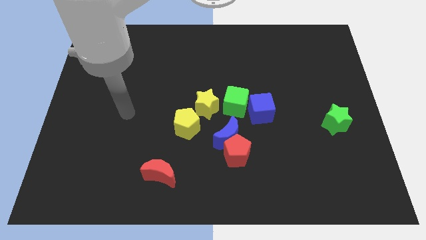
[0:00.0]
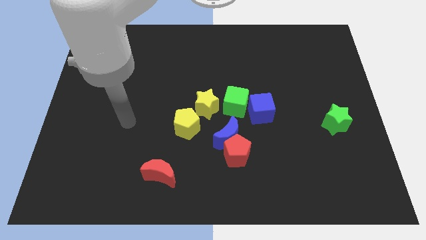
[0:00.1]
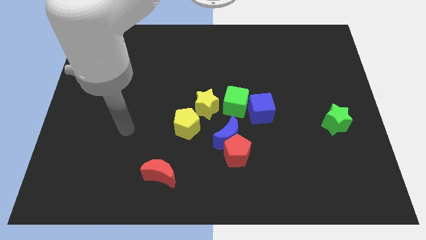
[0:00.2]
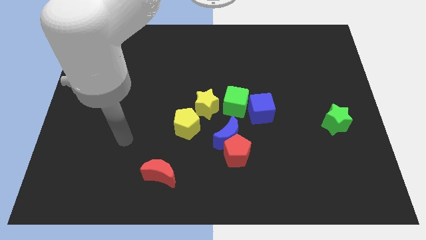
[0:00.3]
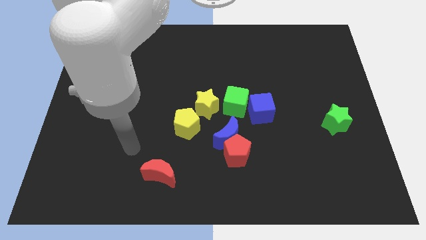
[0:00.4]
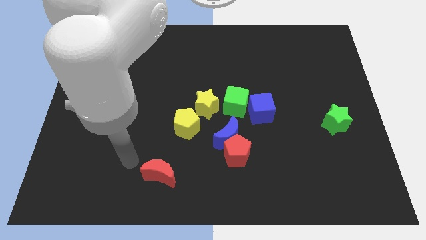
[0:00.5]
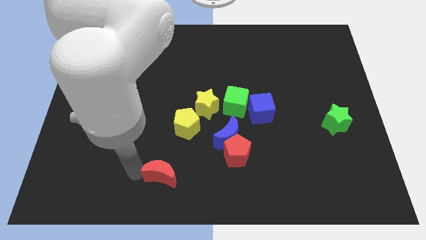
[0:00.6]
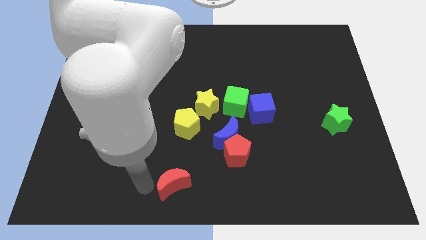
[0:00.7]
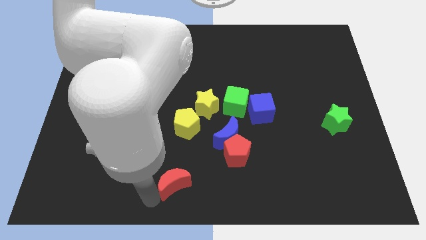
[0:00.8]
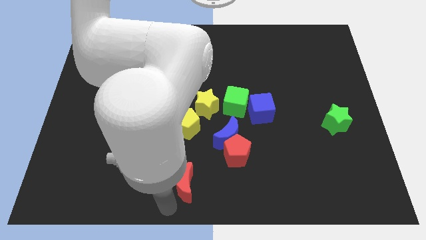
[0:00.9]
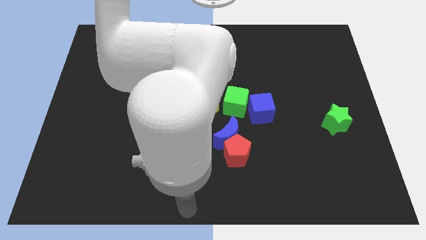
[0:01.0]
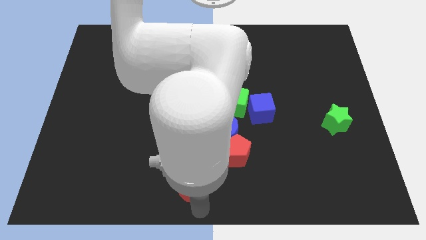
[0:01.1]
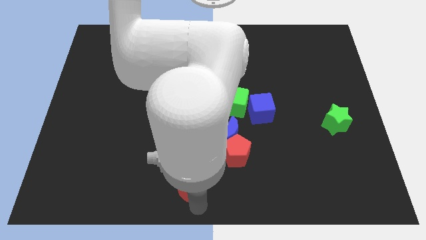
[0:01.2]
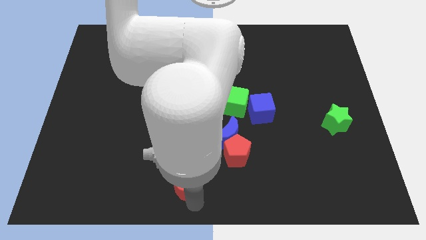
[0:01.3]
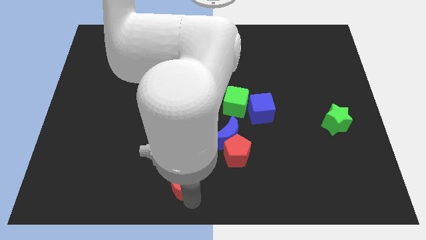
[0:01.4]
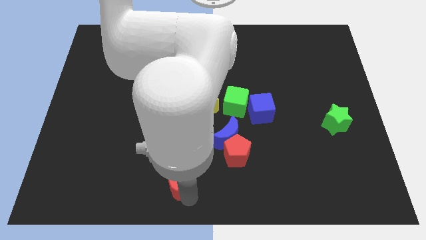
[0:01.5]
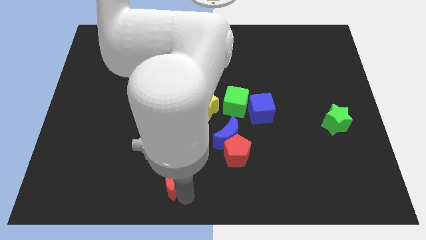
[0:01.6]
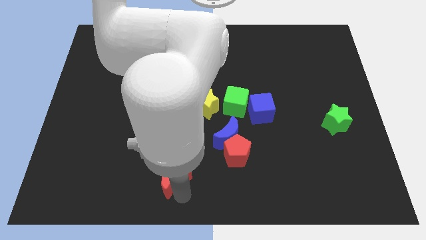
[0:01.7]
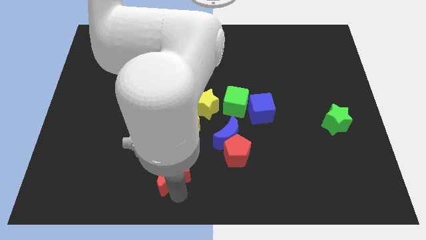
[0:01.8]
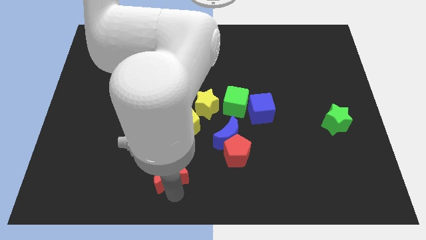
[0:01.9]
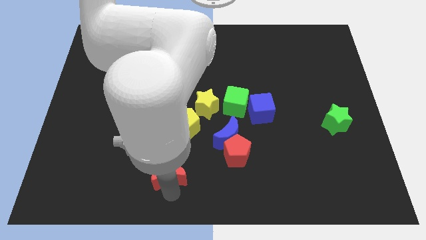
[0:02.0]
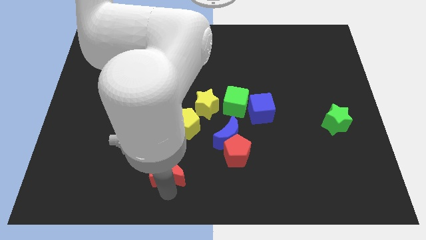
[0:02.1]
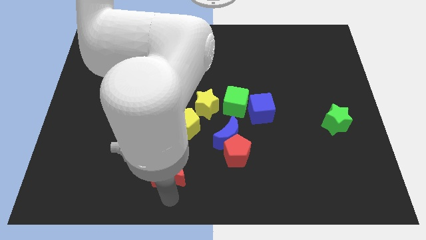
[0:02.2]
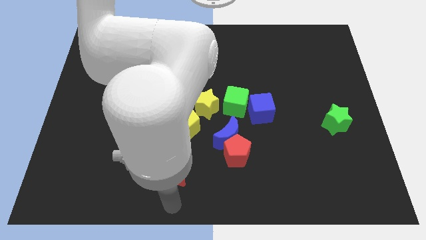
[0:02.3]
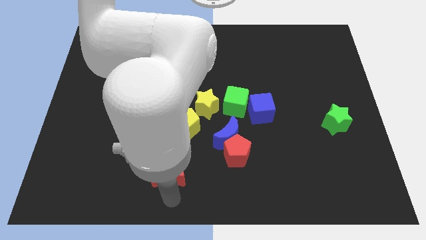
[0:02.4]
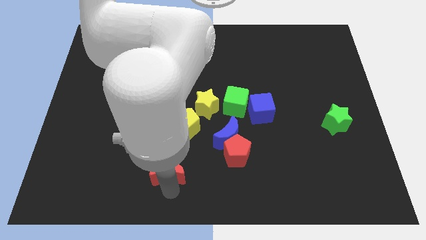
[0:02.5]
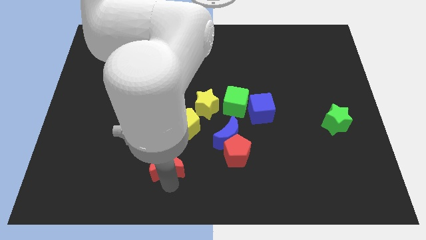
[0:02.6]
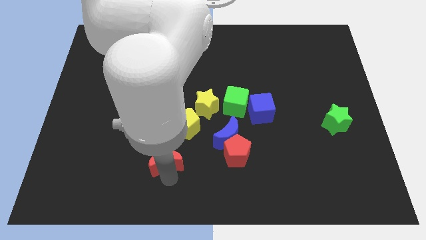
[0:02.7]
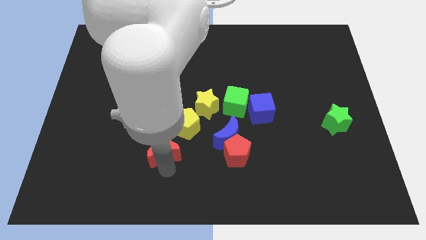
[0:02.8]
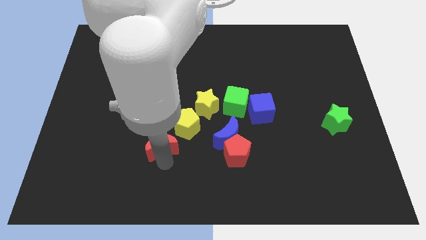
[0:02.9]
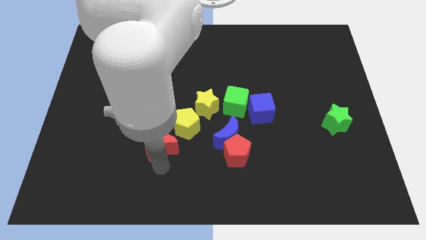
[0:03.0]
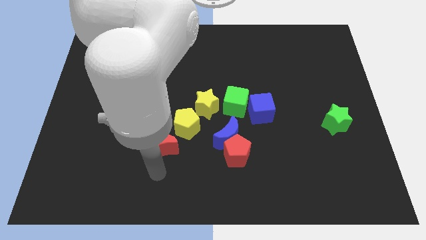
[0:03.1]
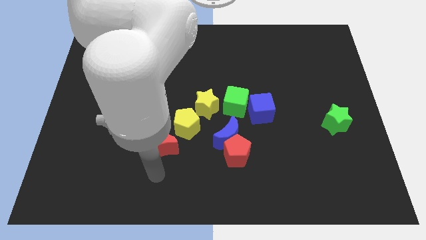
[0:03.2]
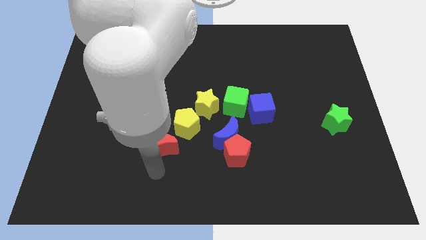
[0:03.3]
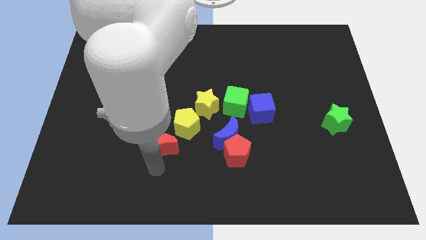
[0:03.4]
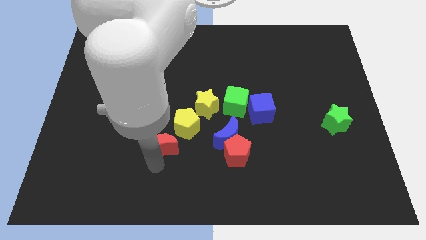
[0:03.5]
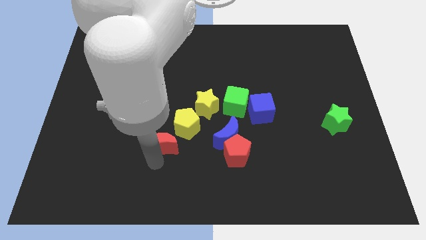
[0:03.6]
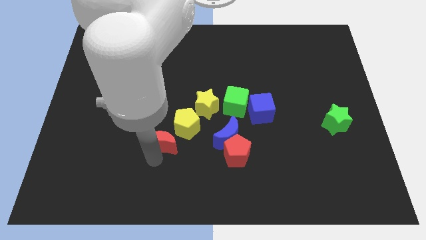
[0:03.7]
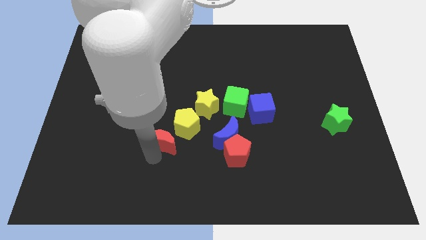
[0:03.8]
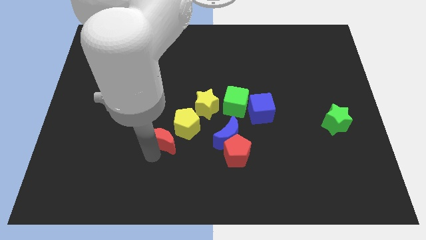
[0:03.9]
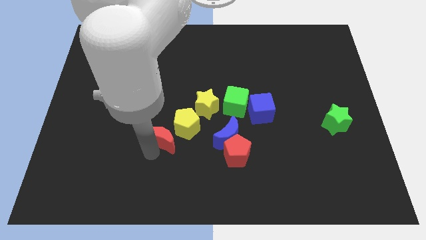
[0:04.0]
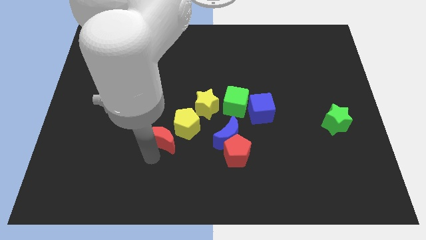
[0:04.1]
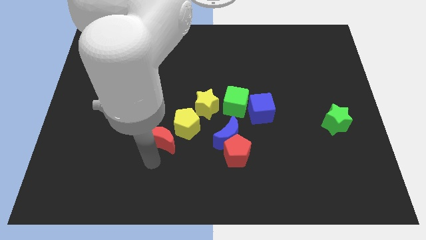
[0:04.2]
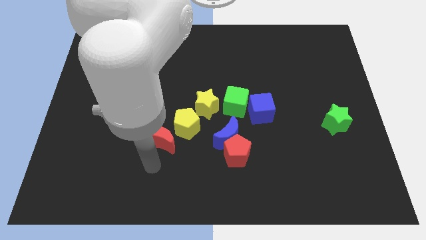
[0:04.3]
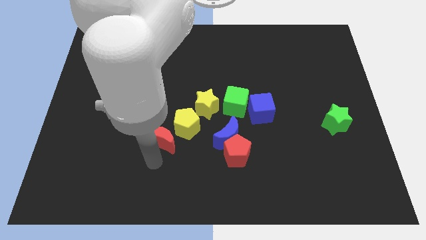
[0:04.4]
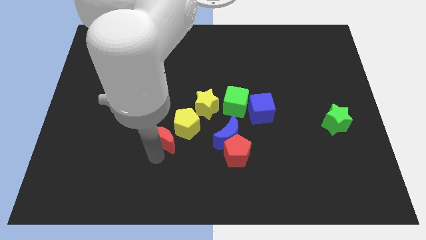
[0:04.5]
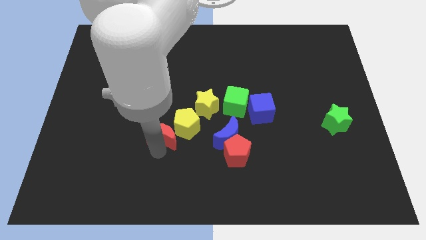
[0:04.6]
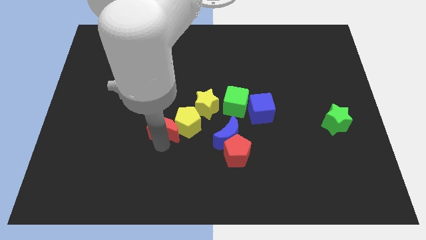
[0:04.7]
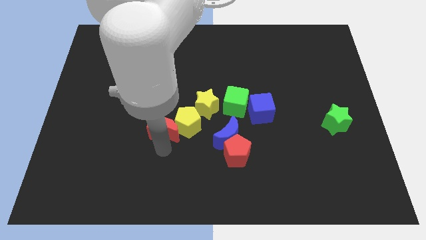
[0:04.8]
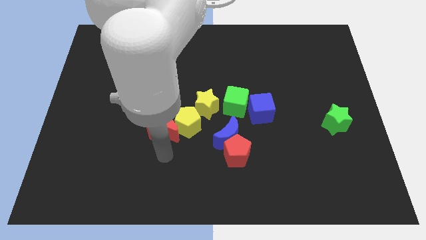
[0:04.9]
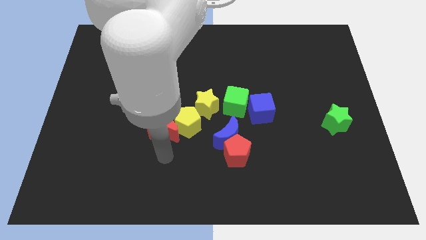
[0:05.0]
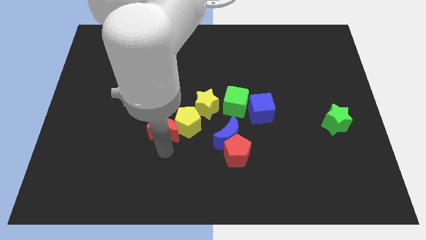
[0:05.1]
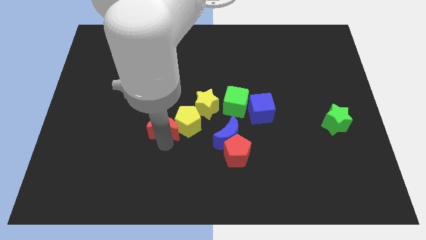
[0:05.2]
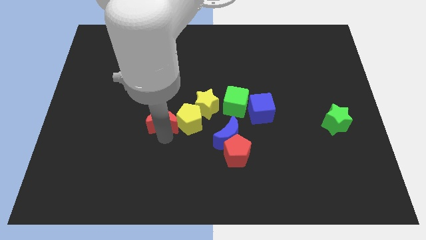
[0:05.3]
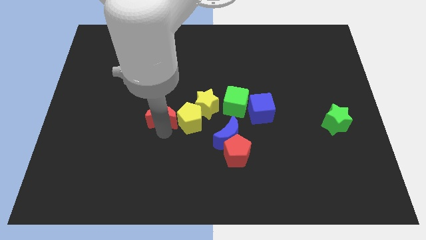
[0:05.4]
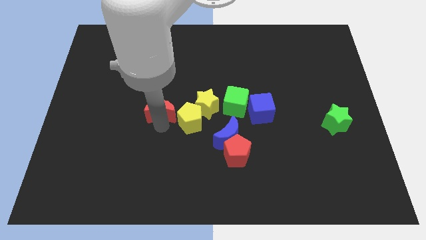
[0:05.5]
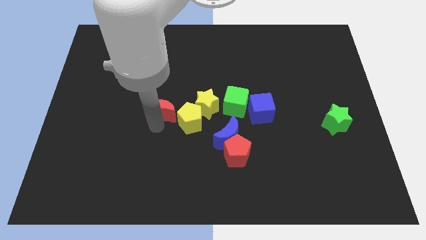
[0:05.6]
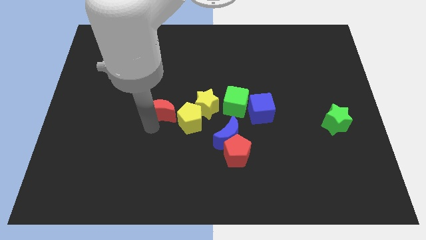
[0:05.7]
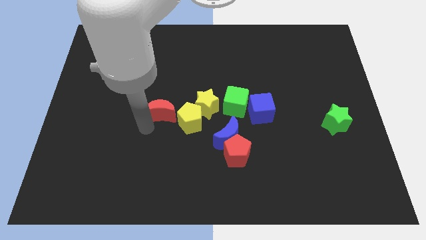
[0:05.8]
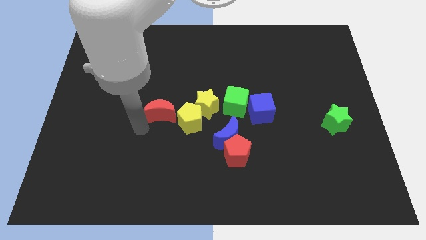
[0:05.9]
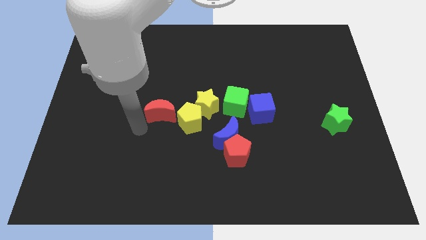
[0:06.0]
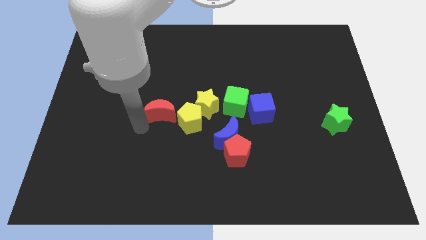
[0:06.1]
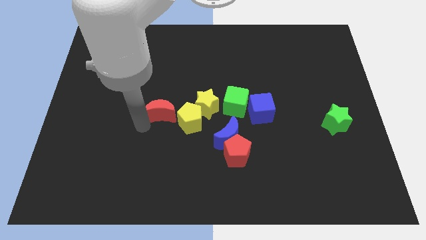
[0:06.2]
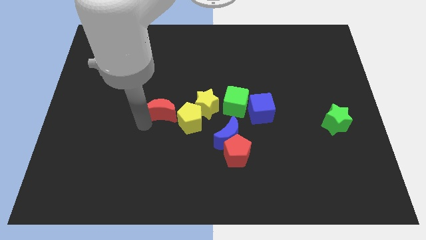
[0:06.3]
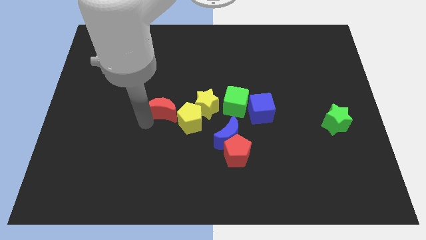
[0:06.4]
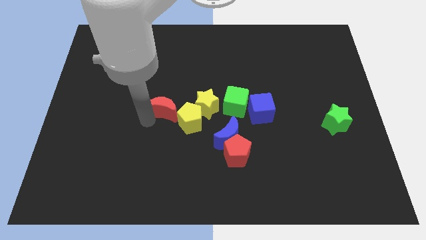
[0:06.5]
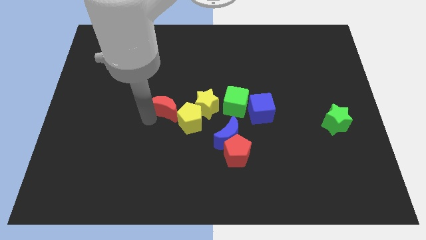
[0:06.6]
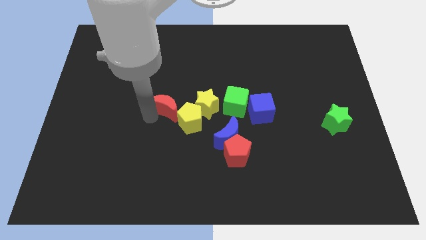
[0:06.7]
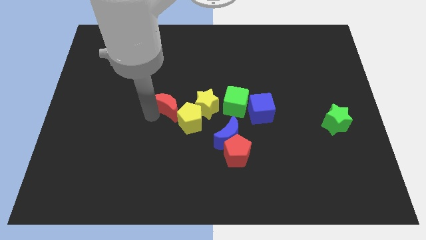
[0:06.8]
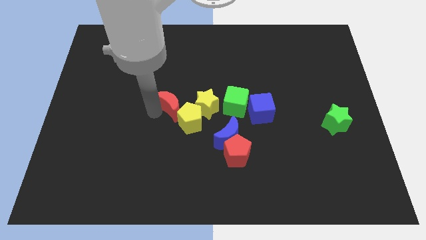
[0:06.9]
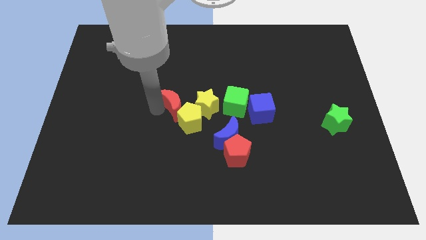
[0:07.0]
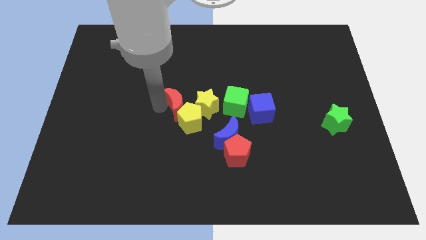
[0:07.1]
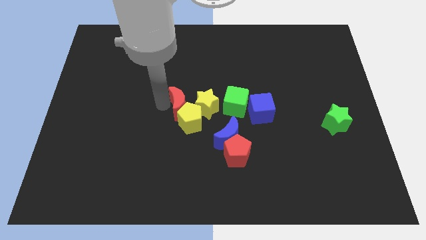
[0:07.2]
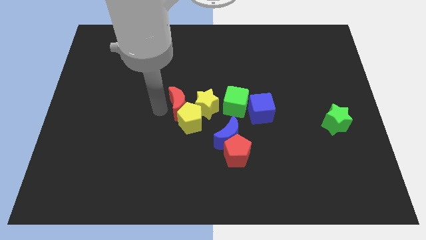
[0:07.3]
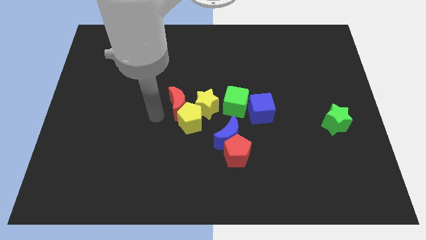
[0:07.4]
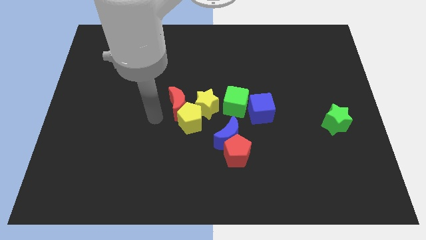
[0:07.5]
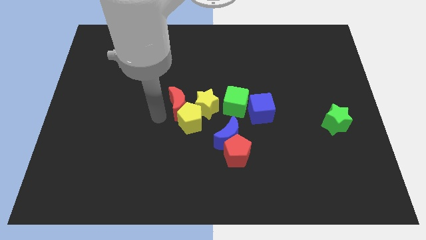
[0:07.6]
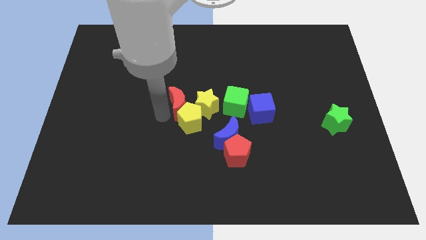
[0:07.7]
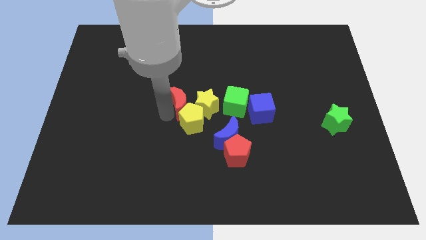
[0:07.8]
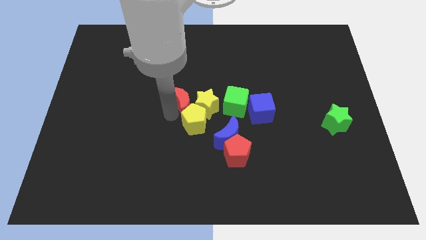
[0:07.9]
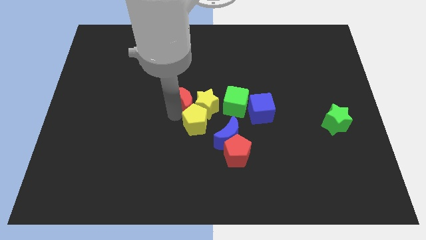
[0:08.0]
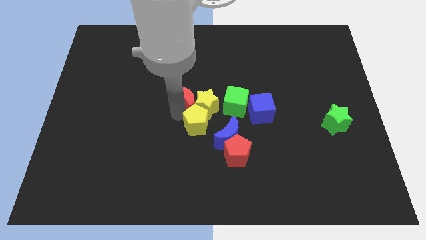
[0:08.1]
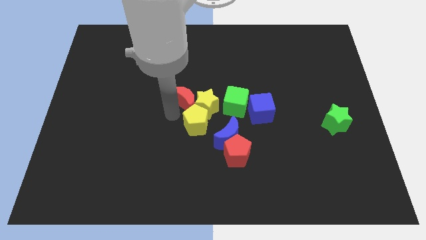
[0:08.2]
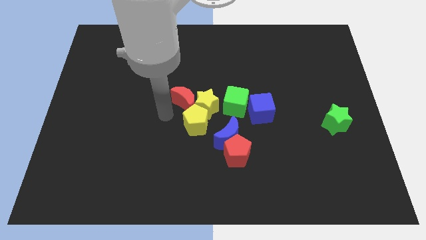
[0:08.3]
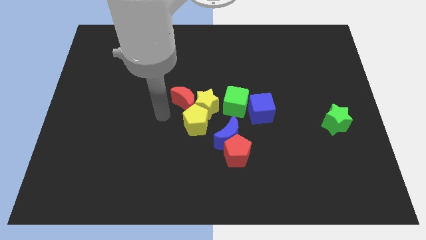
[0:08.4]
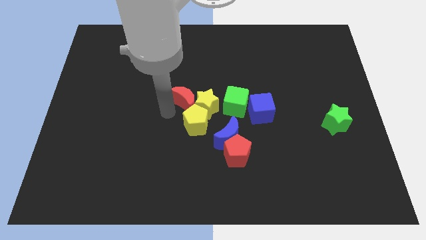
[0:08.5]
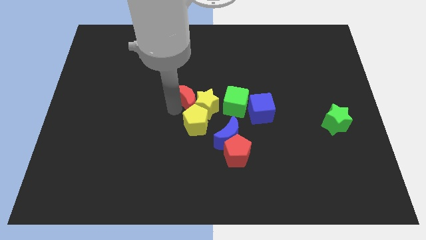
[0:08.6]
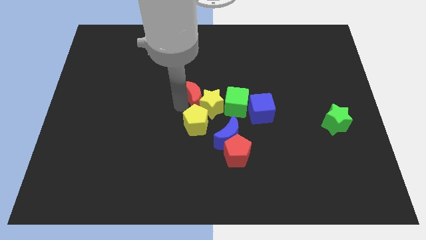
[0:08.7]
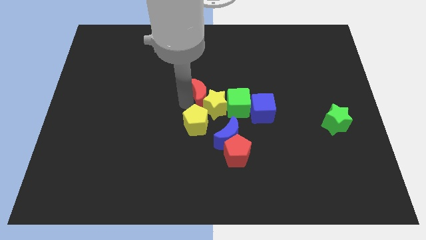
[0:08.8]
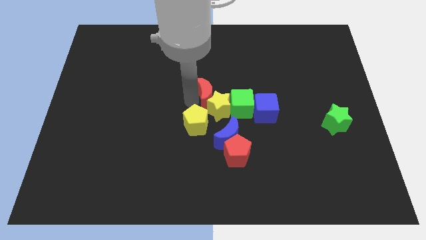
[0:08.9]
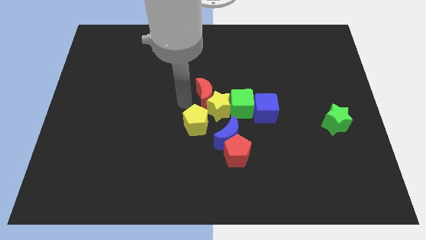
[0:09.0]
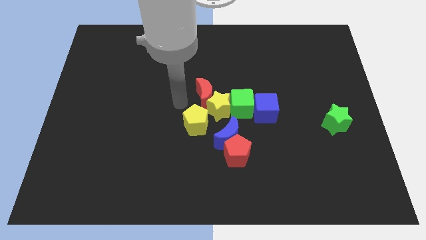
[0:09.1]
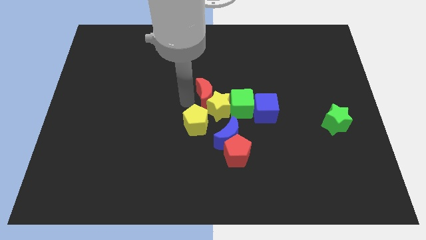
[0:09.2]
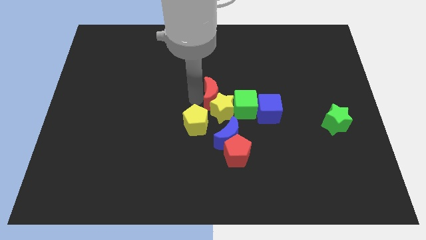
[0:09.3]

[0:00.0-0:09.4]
move the red moon upwards and then right
